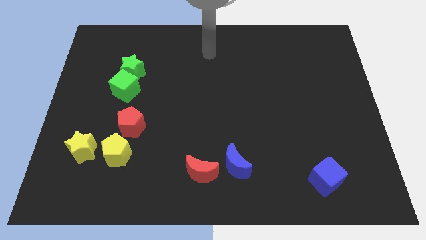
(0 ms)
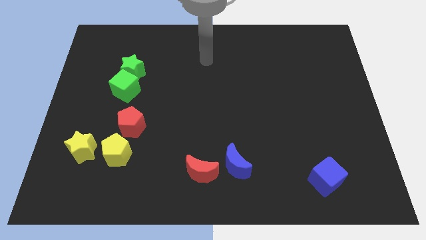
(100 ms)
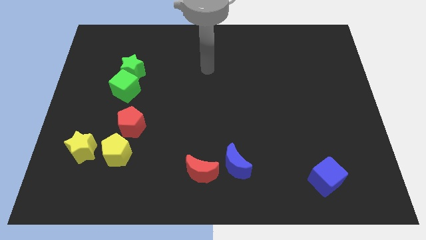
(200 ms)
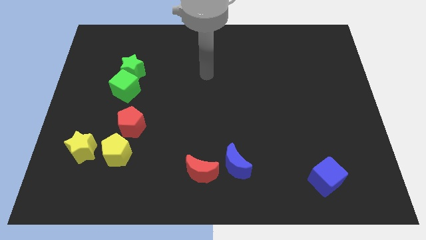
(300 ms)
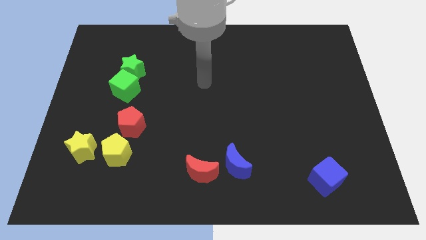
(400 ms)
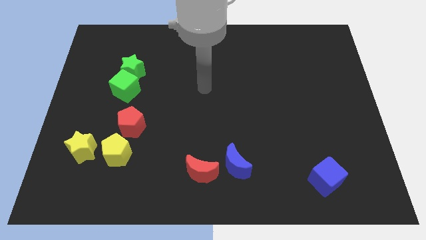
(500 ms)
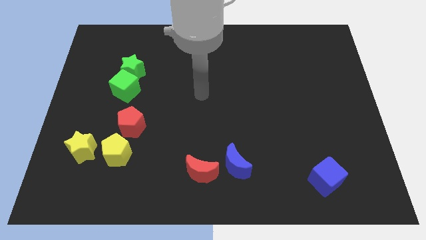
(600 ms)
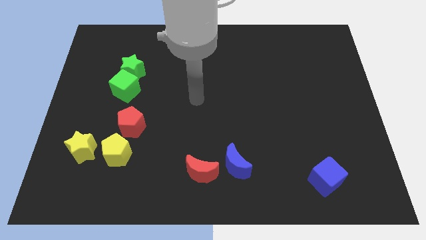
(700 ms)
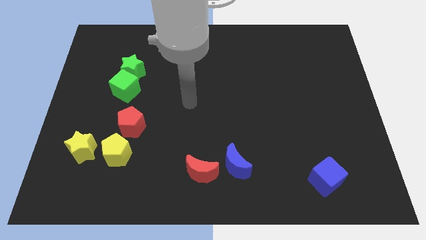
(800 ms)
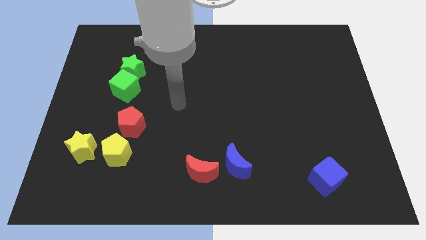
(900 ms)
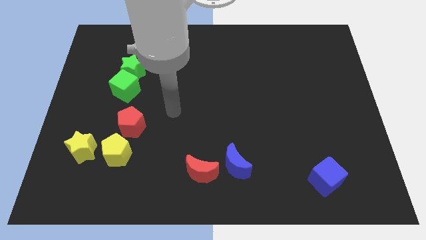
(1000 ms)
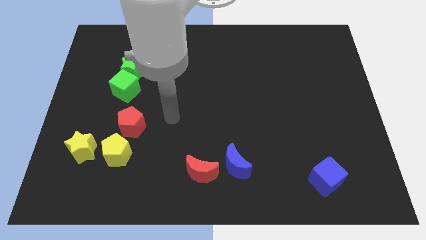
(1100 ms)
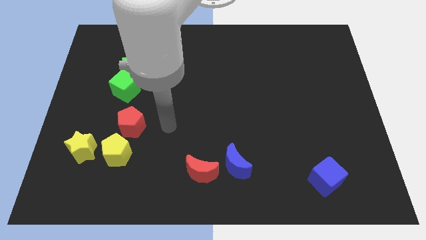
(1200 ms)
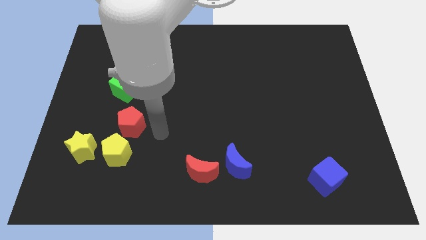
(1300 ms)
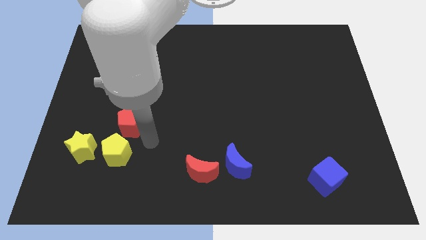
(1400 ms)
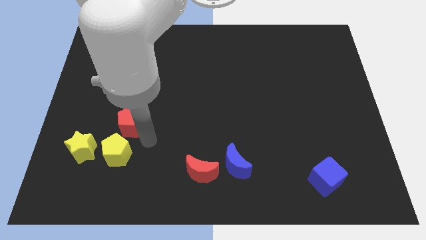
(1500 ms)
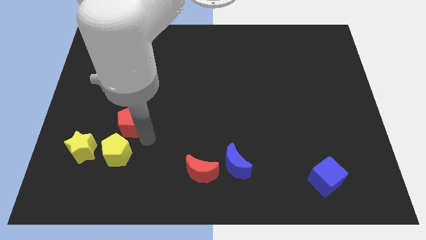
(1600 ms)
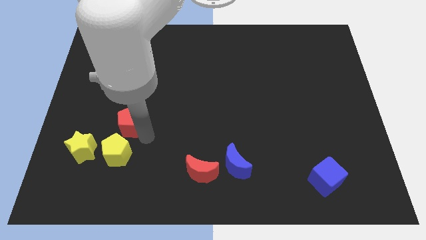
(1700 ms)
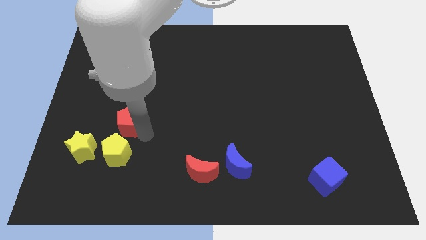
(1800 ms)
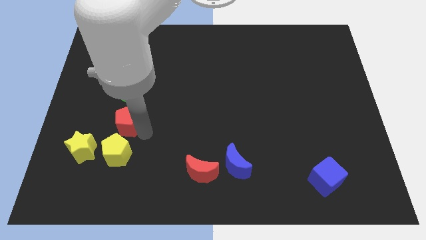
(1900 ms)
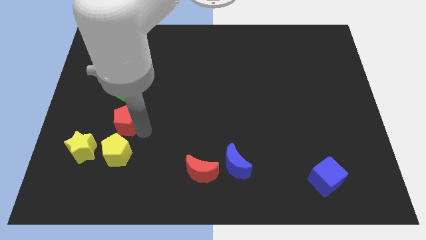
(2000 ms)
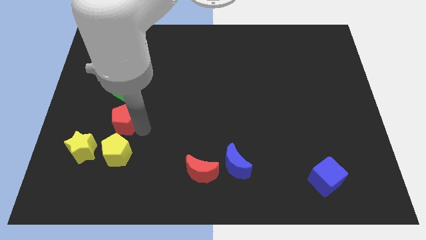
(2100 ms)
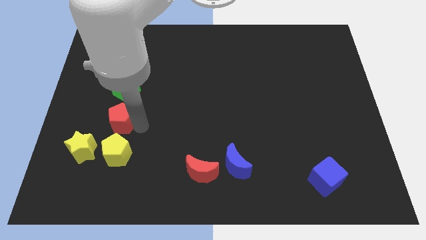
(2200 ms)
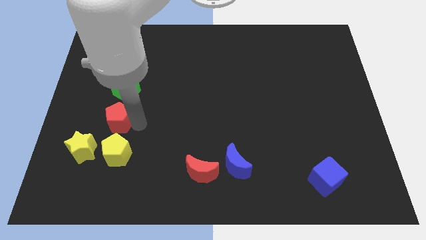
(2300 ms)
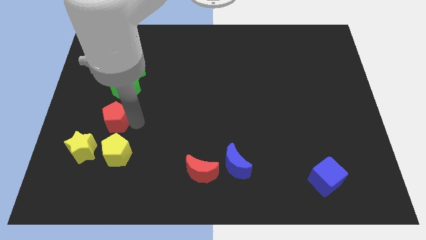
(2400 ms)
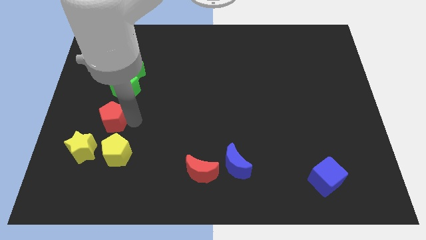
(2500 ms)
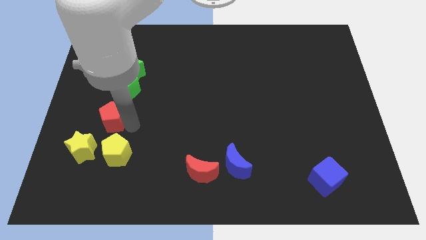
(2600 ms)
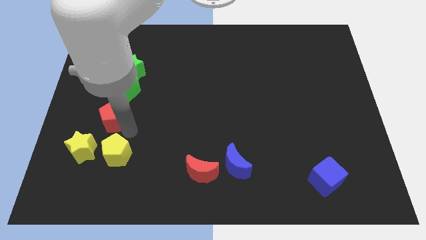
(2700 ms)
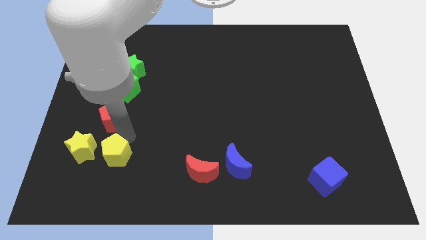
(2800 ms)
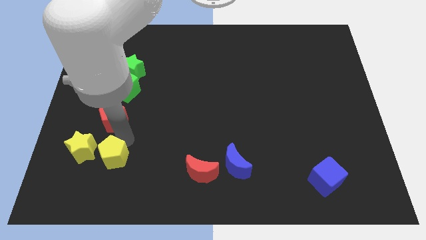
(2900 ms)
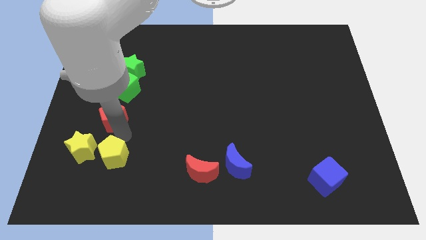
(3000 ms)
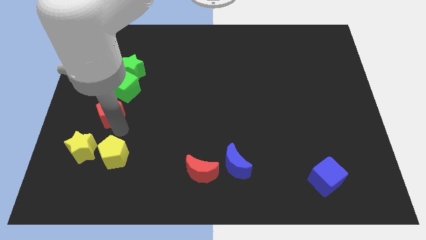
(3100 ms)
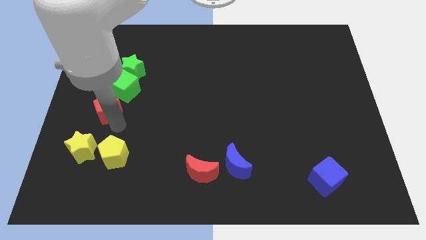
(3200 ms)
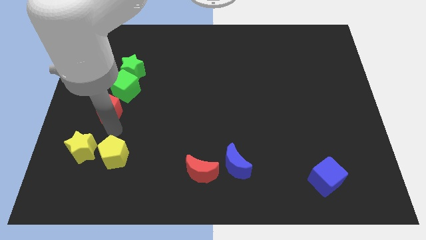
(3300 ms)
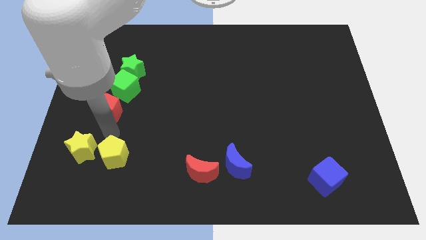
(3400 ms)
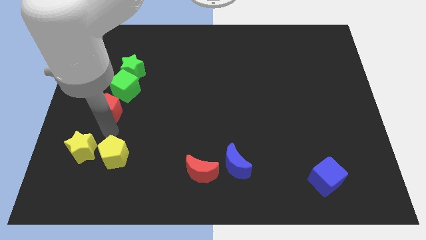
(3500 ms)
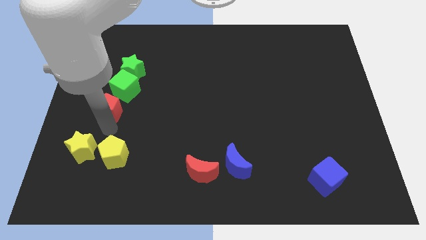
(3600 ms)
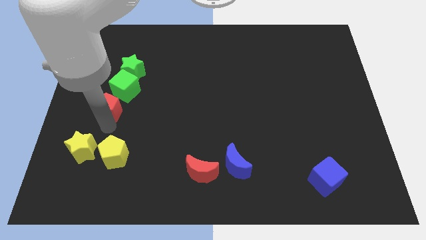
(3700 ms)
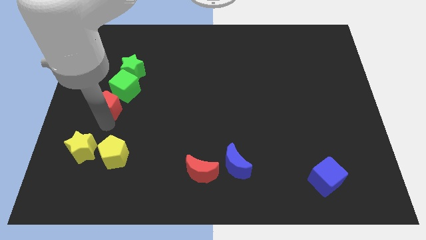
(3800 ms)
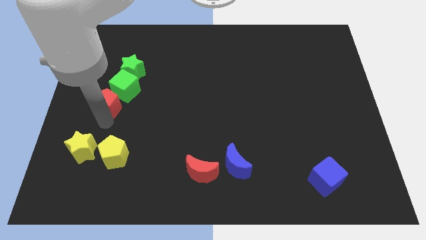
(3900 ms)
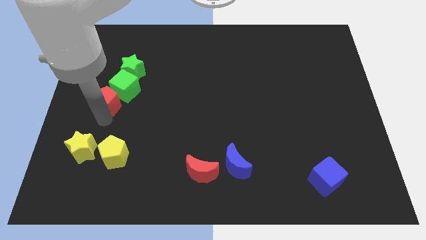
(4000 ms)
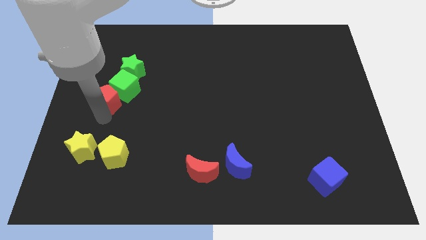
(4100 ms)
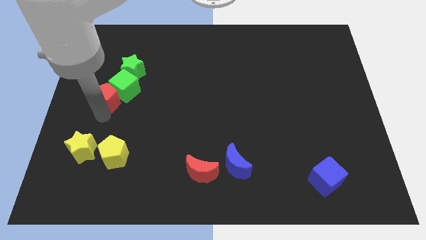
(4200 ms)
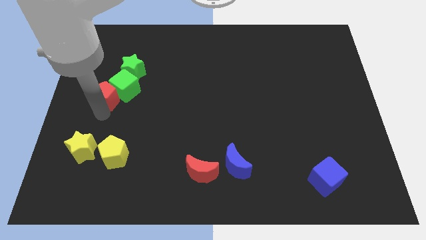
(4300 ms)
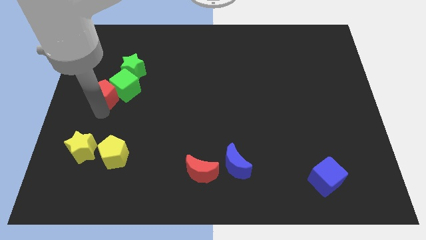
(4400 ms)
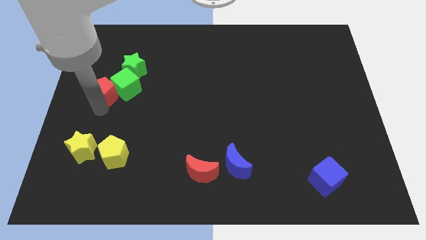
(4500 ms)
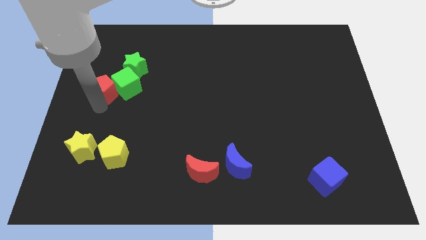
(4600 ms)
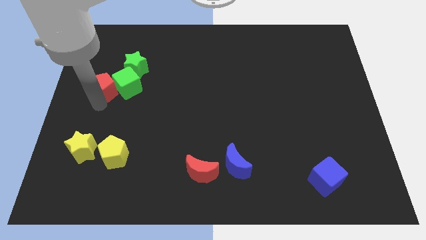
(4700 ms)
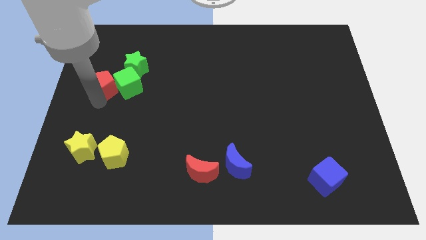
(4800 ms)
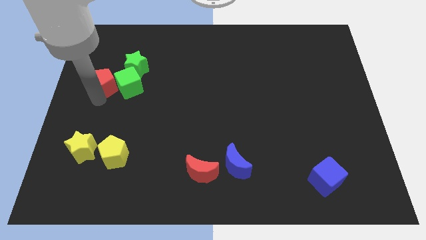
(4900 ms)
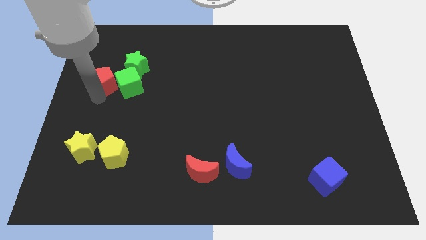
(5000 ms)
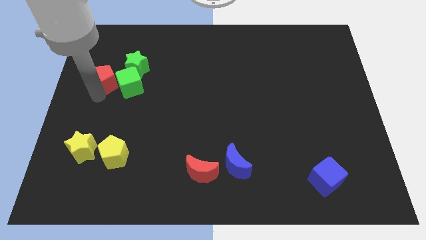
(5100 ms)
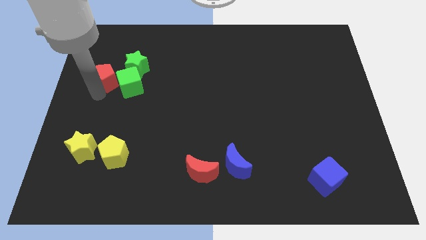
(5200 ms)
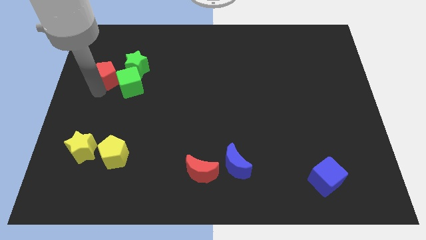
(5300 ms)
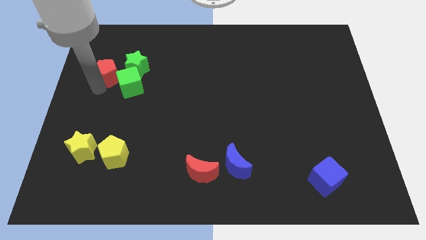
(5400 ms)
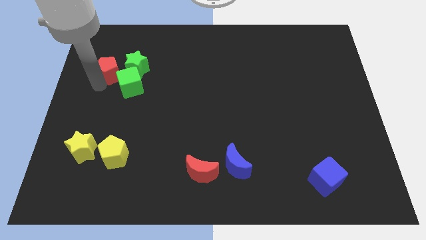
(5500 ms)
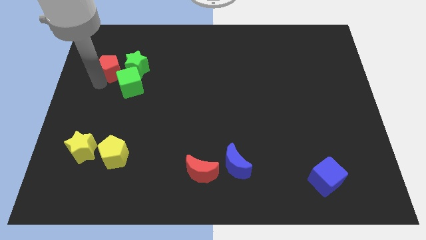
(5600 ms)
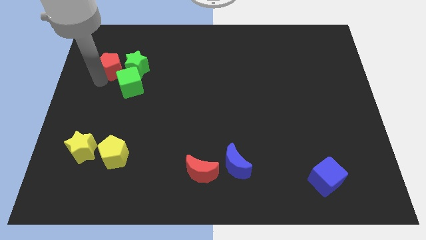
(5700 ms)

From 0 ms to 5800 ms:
move the red pentagon diagonally up and to the left of the green star
